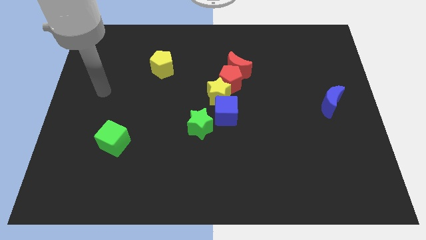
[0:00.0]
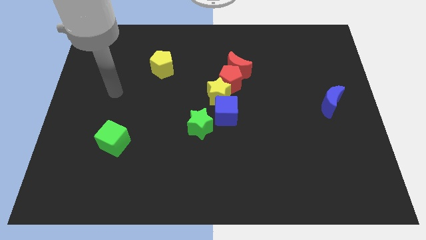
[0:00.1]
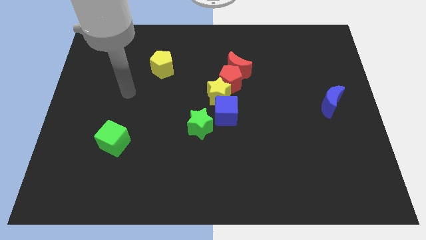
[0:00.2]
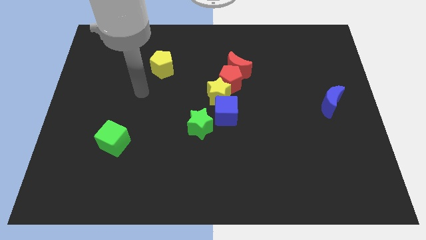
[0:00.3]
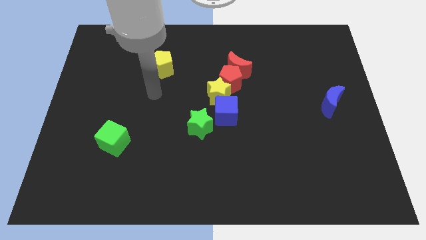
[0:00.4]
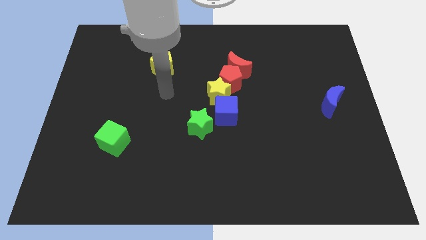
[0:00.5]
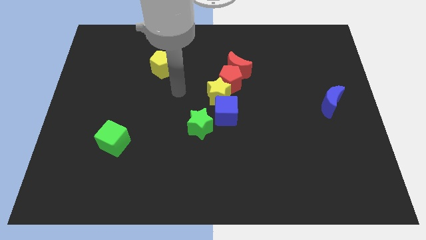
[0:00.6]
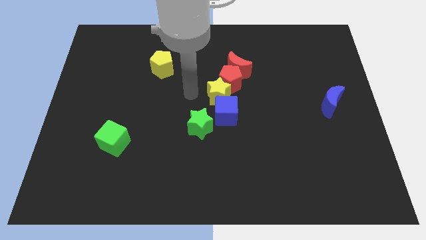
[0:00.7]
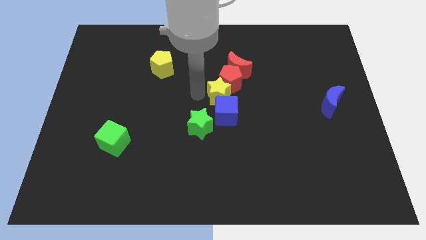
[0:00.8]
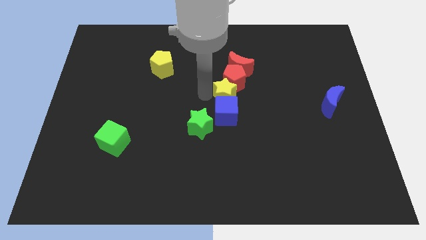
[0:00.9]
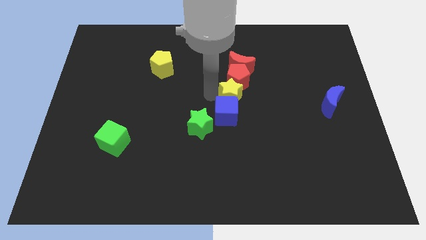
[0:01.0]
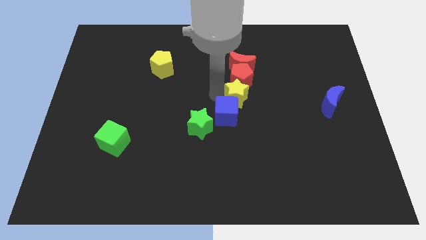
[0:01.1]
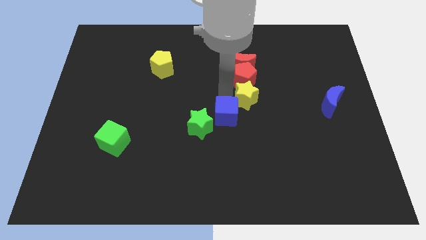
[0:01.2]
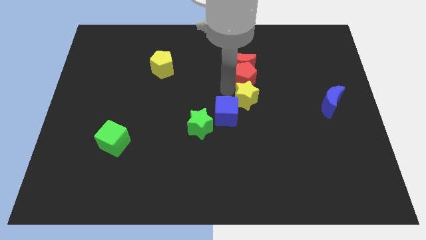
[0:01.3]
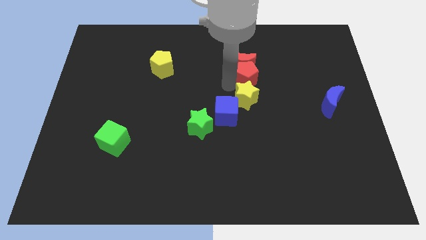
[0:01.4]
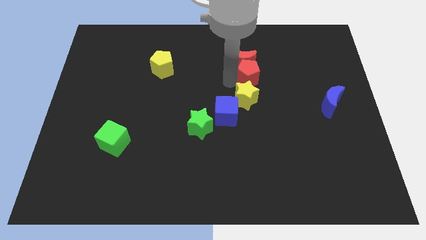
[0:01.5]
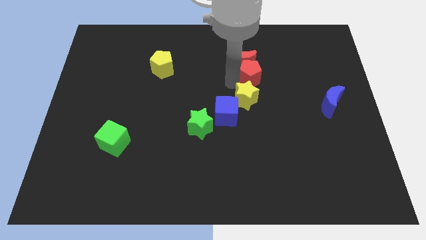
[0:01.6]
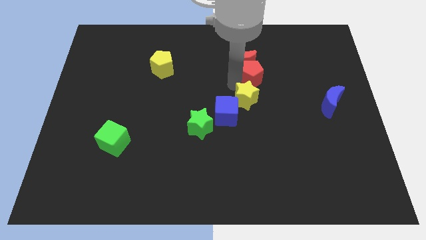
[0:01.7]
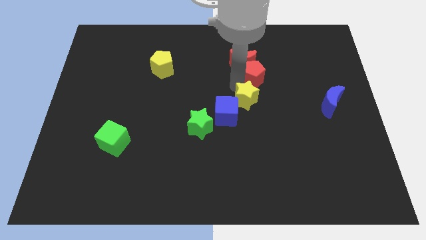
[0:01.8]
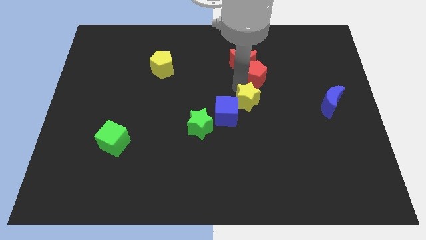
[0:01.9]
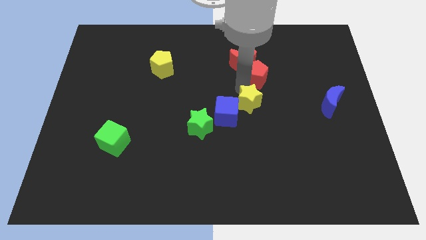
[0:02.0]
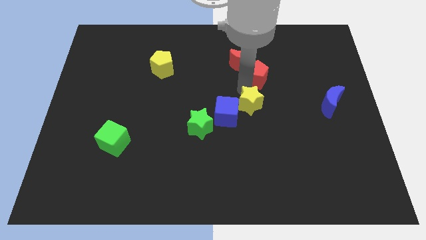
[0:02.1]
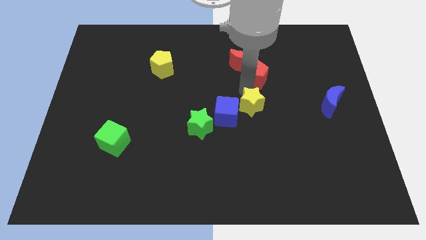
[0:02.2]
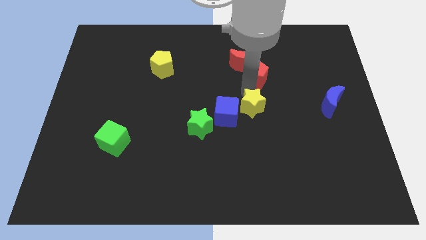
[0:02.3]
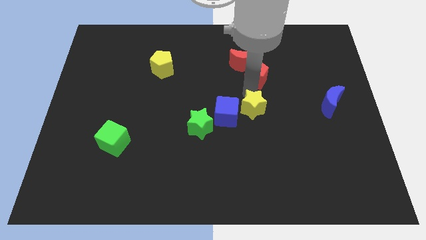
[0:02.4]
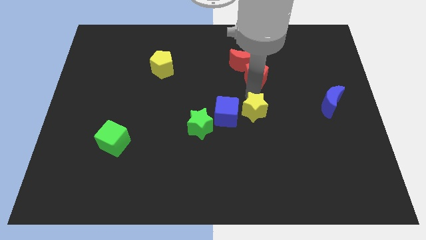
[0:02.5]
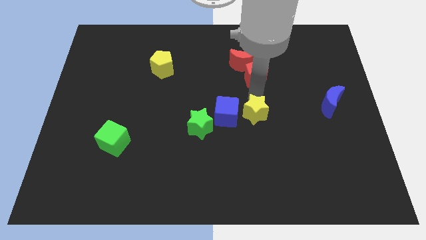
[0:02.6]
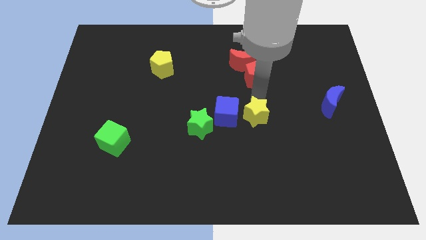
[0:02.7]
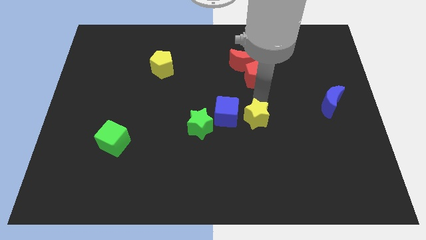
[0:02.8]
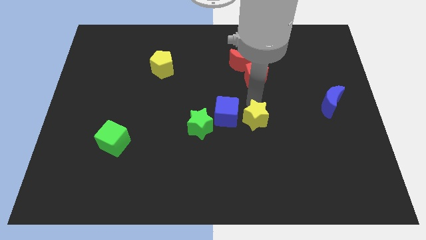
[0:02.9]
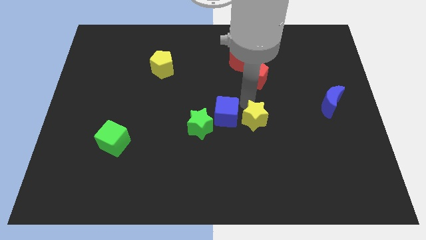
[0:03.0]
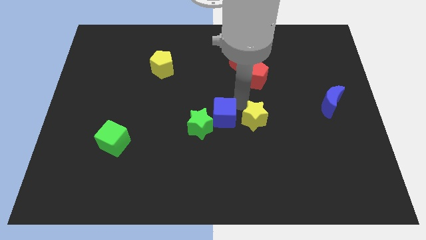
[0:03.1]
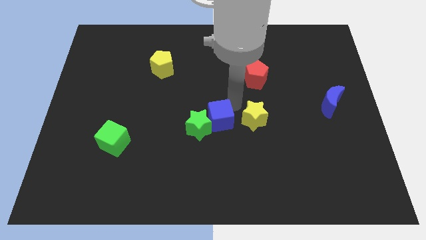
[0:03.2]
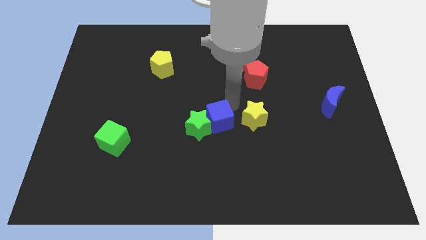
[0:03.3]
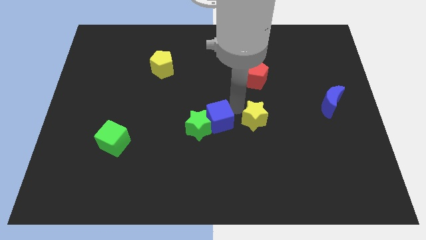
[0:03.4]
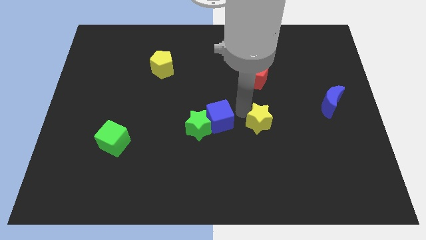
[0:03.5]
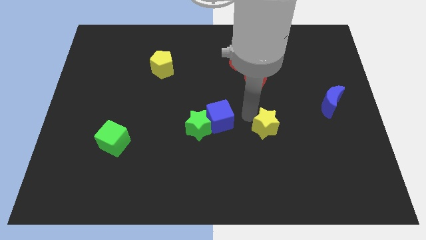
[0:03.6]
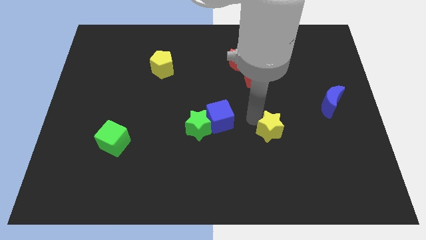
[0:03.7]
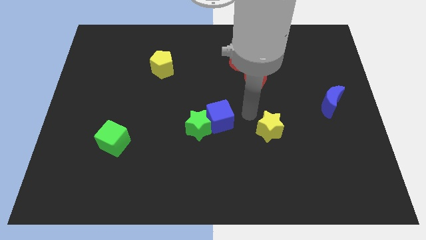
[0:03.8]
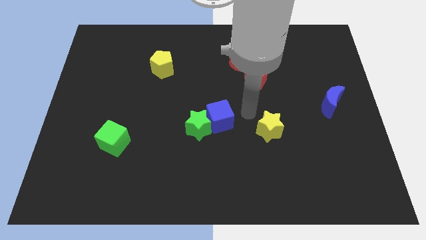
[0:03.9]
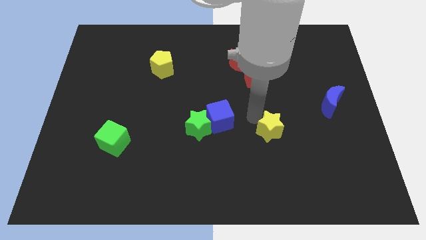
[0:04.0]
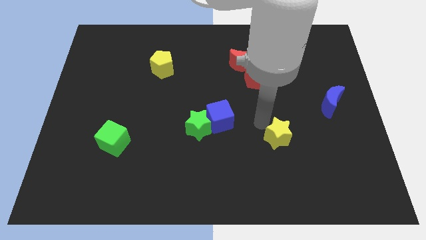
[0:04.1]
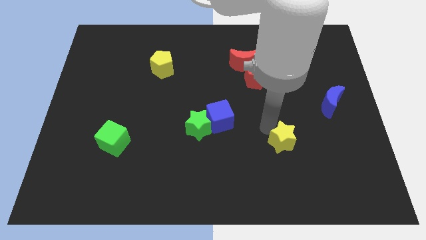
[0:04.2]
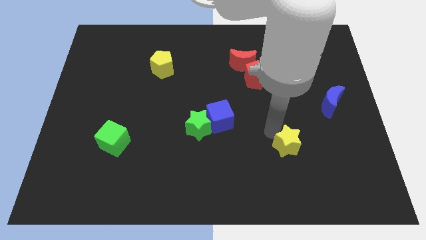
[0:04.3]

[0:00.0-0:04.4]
move the yellow star downwards and then to the right

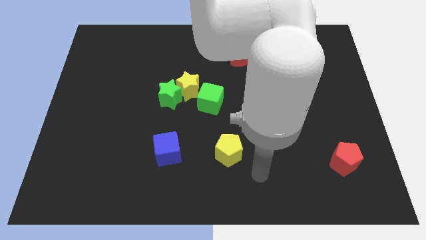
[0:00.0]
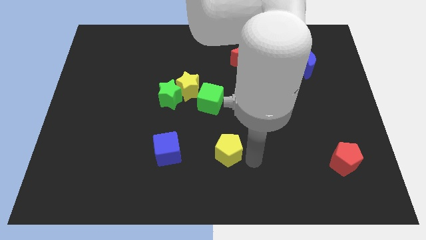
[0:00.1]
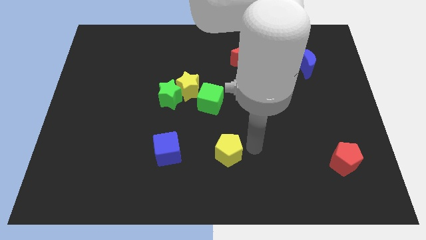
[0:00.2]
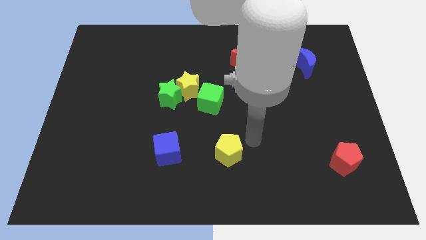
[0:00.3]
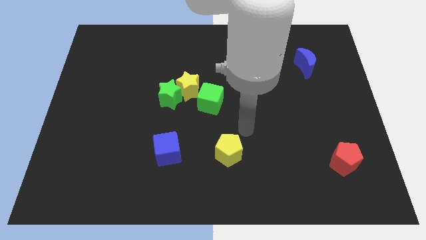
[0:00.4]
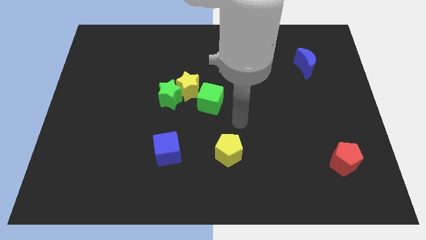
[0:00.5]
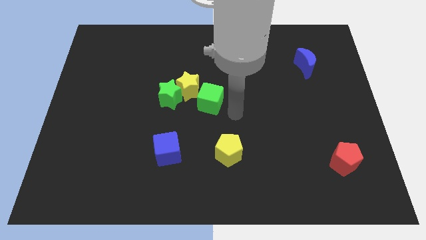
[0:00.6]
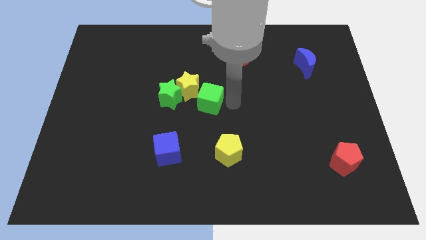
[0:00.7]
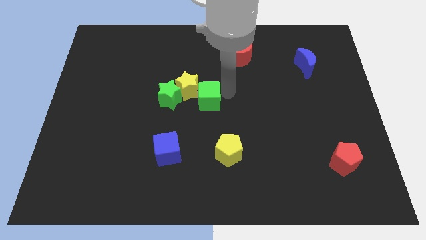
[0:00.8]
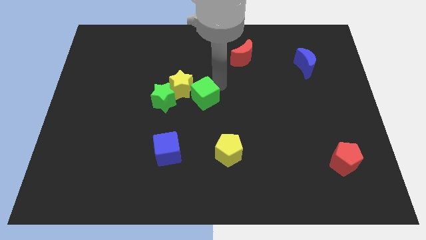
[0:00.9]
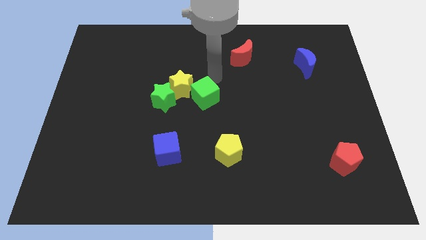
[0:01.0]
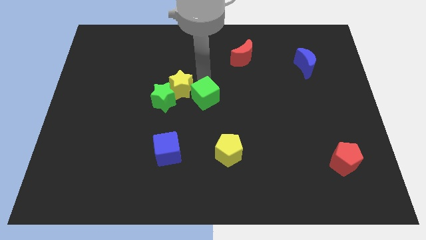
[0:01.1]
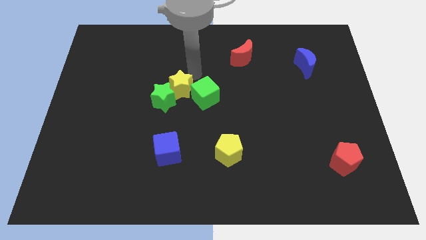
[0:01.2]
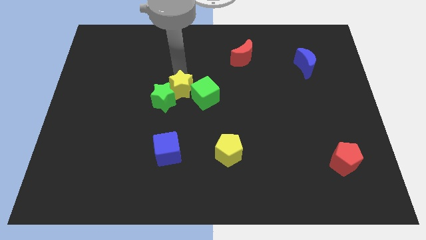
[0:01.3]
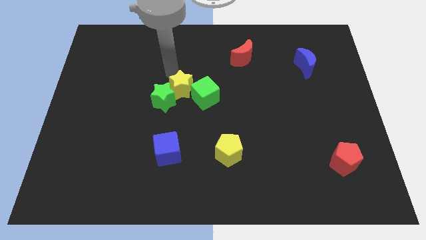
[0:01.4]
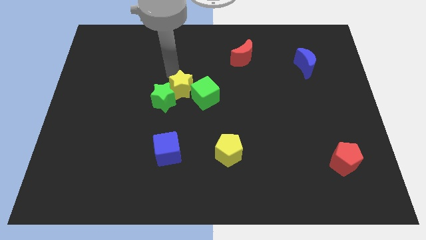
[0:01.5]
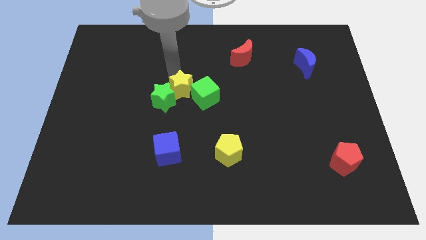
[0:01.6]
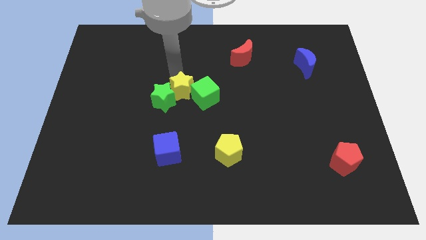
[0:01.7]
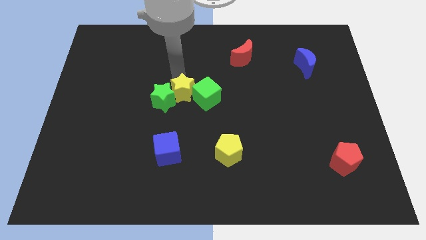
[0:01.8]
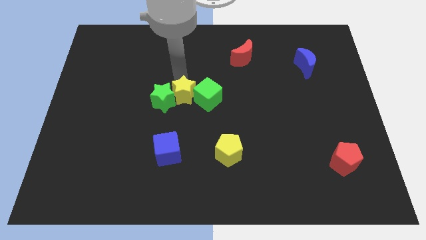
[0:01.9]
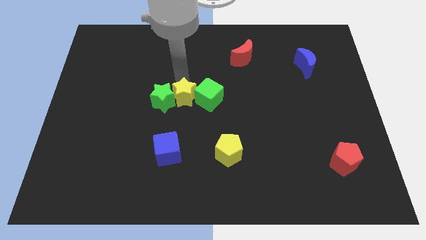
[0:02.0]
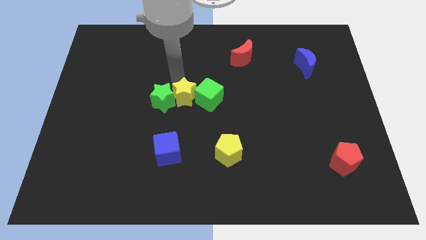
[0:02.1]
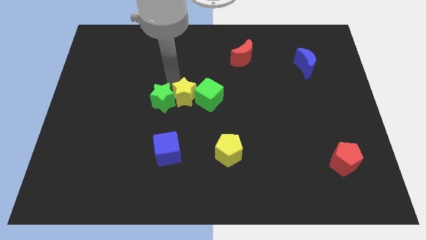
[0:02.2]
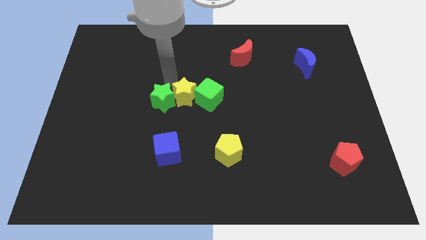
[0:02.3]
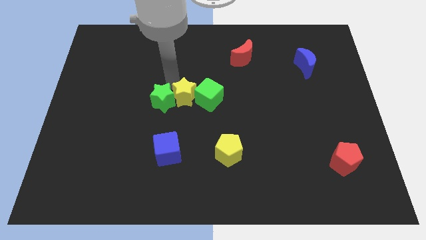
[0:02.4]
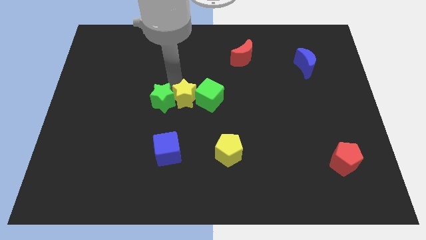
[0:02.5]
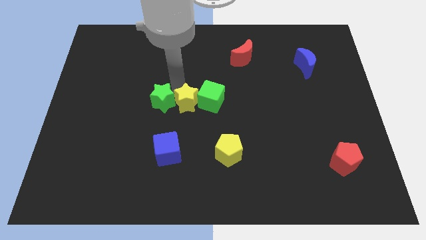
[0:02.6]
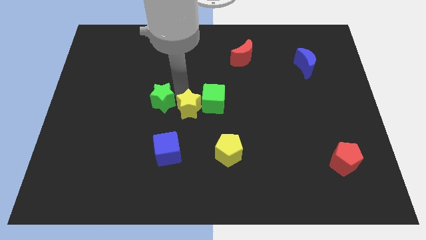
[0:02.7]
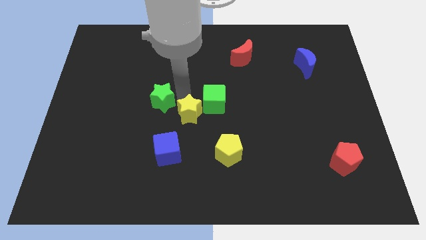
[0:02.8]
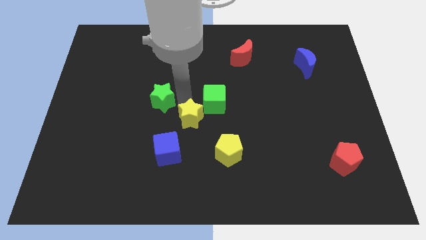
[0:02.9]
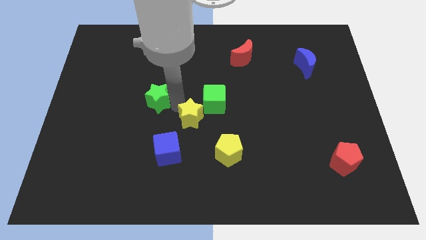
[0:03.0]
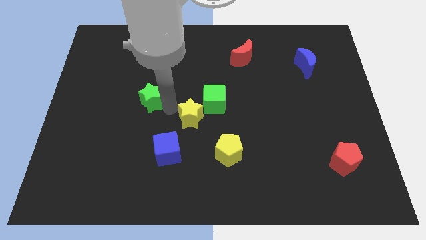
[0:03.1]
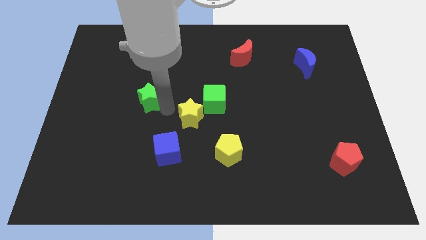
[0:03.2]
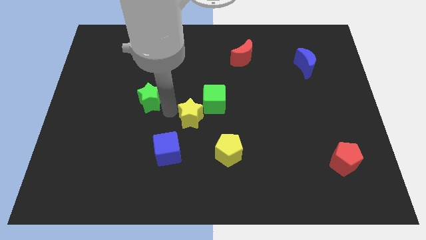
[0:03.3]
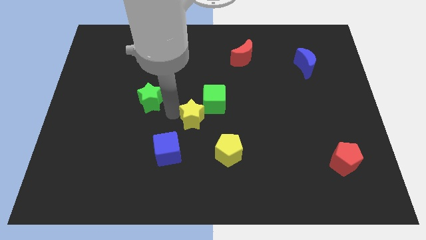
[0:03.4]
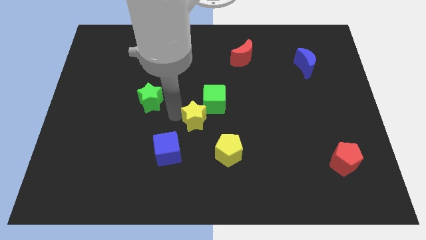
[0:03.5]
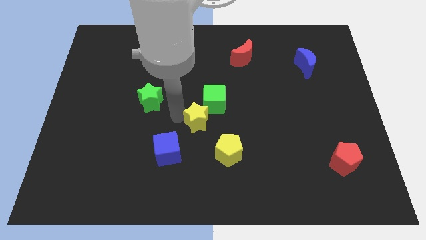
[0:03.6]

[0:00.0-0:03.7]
move the yellow star a little downwards and to the right
